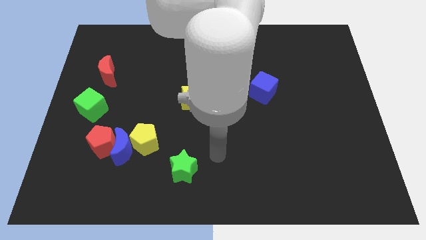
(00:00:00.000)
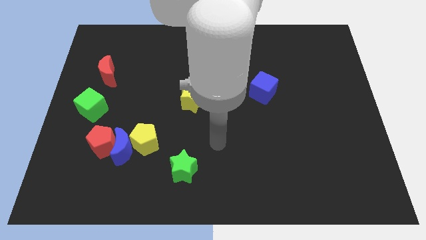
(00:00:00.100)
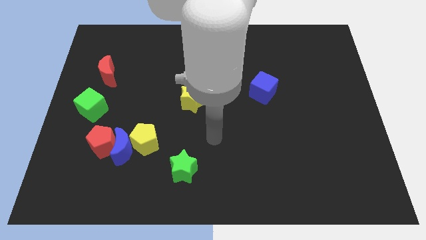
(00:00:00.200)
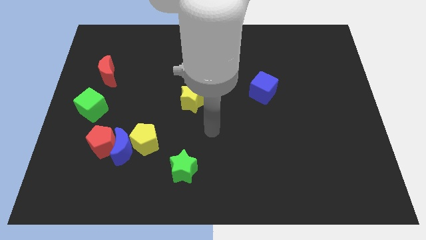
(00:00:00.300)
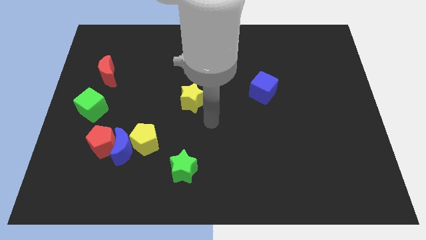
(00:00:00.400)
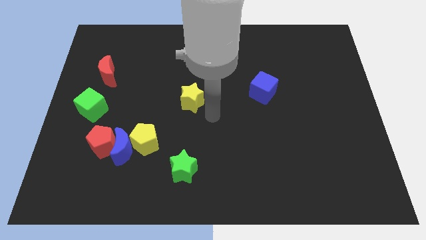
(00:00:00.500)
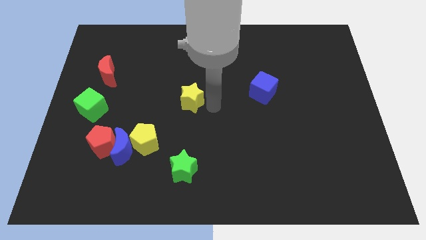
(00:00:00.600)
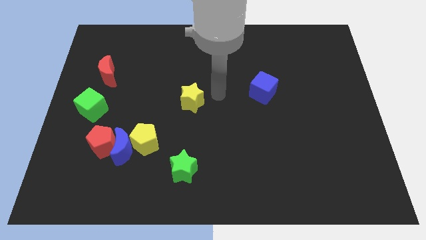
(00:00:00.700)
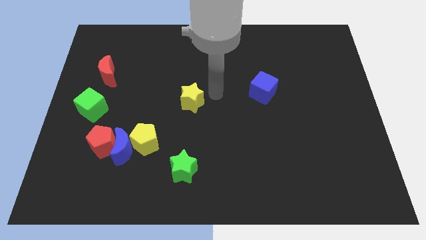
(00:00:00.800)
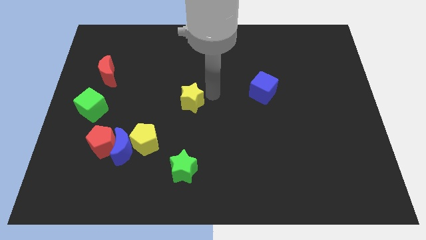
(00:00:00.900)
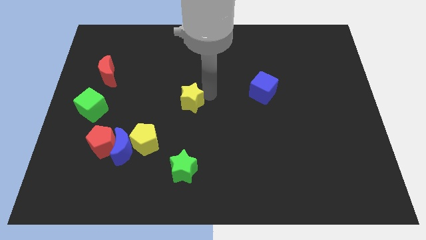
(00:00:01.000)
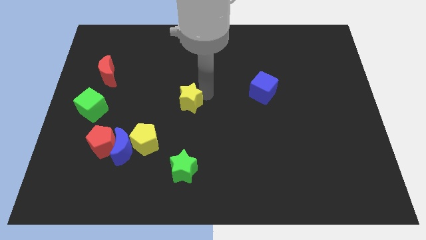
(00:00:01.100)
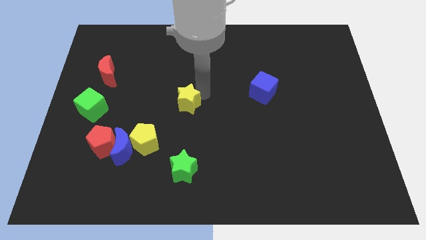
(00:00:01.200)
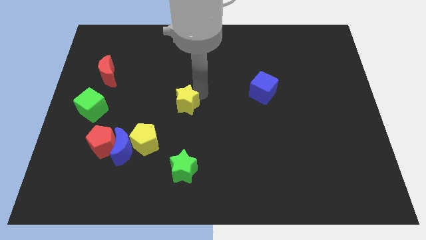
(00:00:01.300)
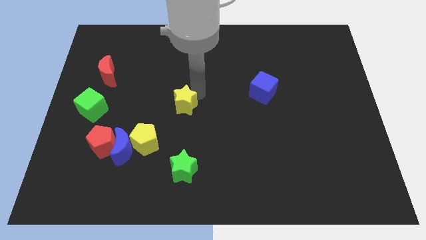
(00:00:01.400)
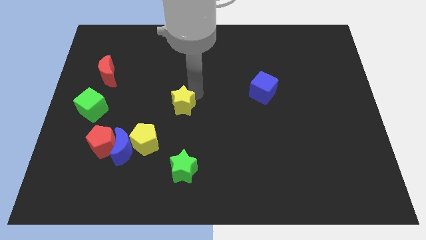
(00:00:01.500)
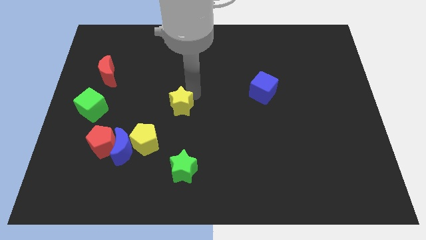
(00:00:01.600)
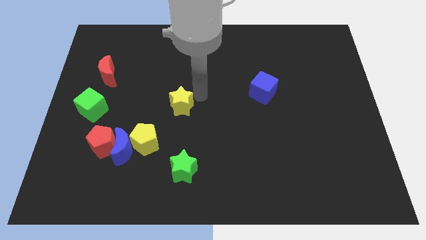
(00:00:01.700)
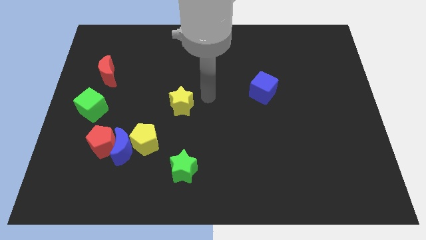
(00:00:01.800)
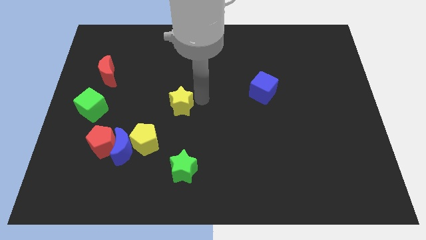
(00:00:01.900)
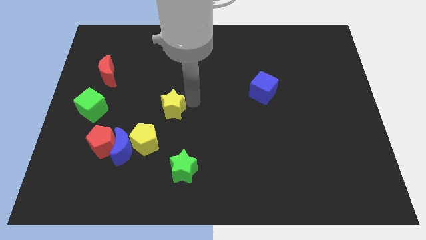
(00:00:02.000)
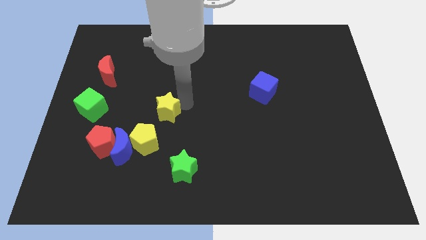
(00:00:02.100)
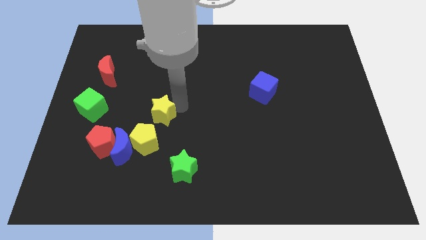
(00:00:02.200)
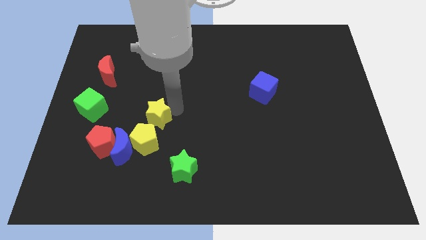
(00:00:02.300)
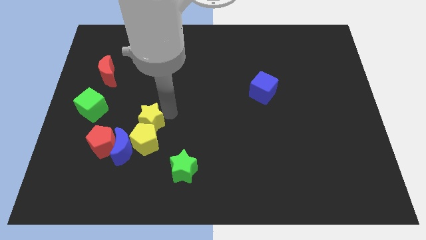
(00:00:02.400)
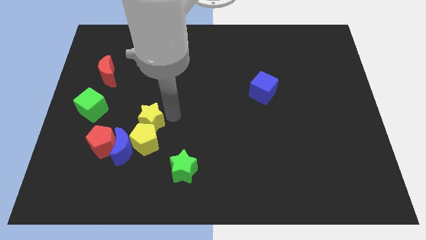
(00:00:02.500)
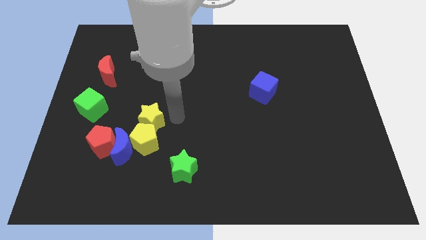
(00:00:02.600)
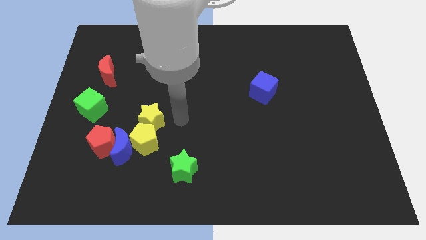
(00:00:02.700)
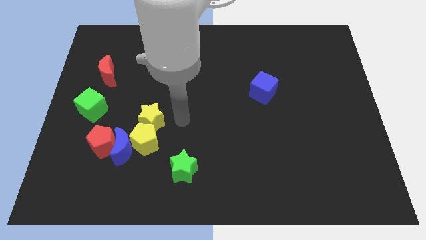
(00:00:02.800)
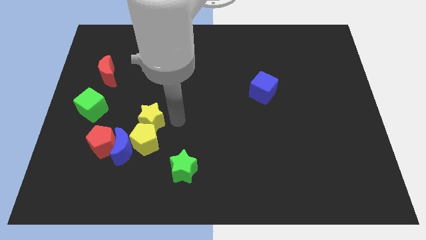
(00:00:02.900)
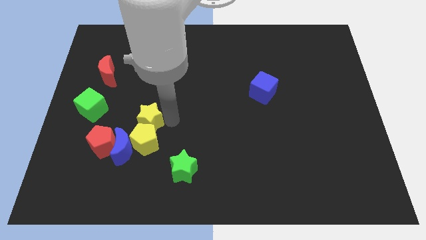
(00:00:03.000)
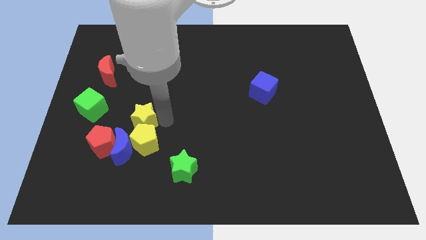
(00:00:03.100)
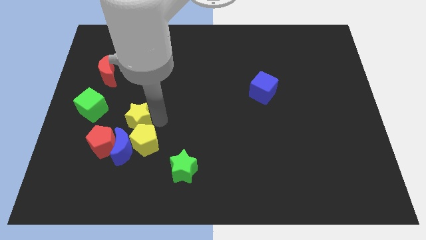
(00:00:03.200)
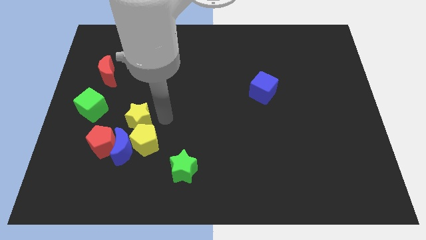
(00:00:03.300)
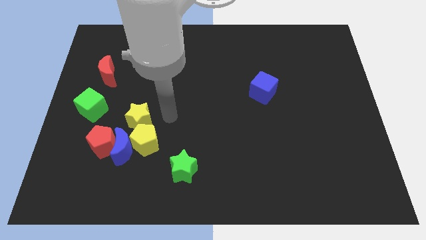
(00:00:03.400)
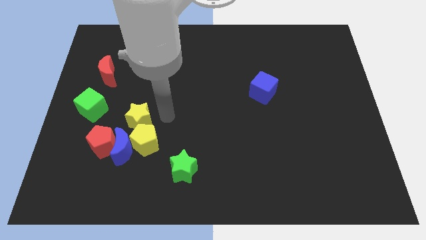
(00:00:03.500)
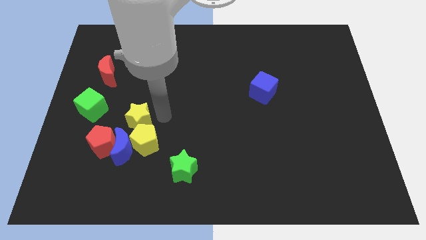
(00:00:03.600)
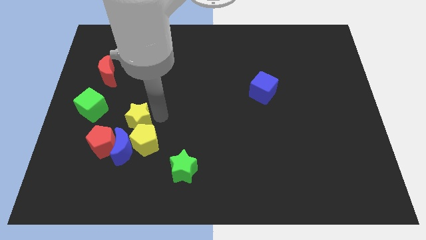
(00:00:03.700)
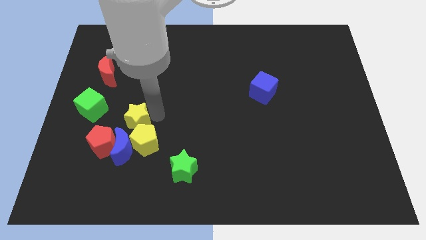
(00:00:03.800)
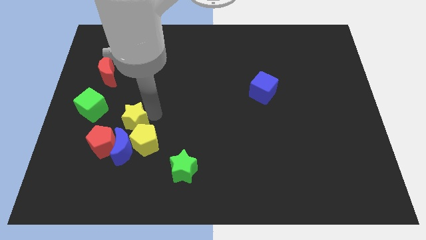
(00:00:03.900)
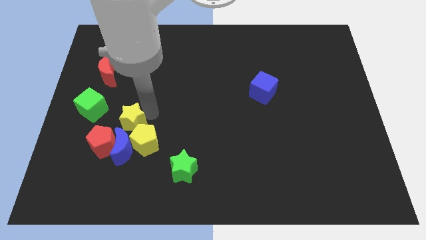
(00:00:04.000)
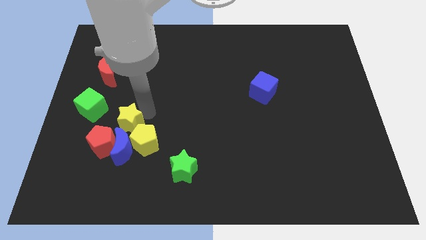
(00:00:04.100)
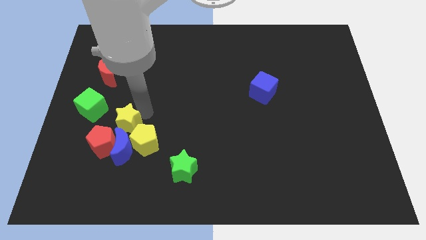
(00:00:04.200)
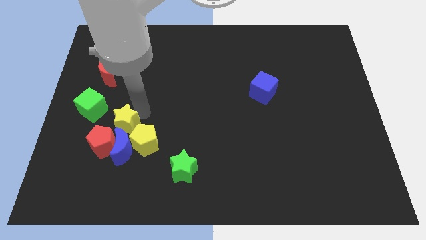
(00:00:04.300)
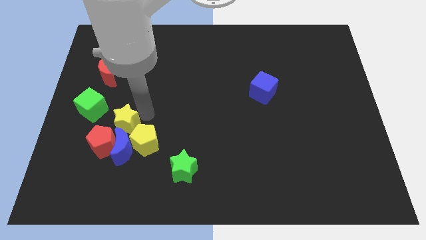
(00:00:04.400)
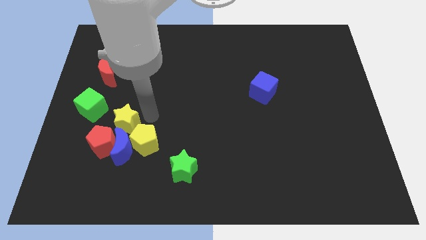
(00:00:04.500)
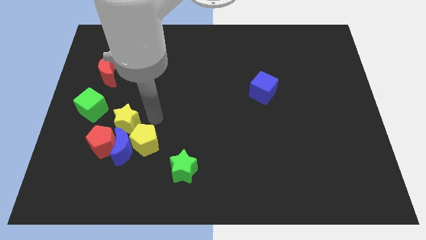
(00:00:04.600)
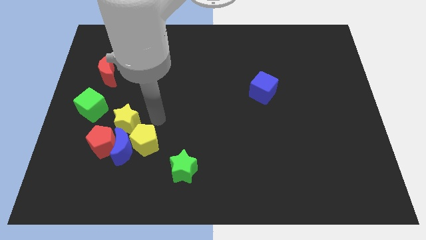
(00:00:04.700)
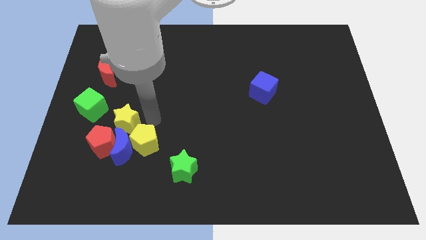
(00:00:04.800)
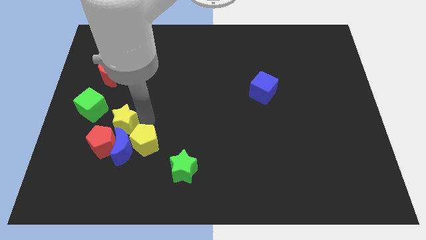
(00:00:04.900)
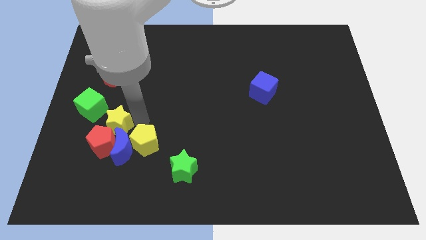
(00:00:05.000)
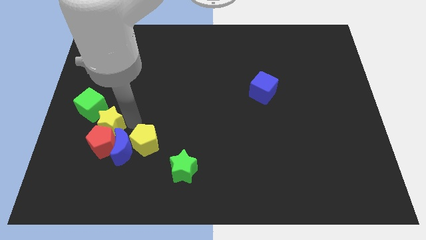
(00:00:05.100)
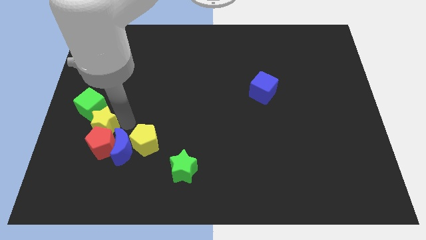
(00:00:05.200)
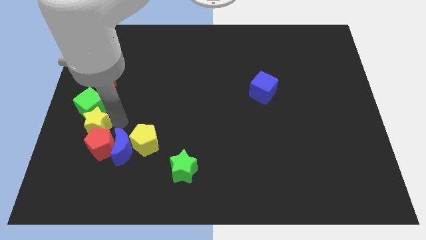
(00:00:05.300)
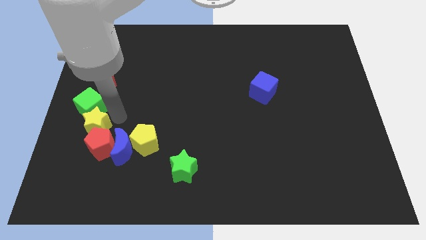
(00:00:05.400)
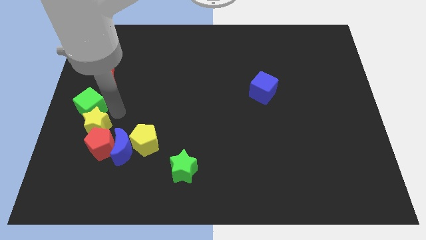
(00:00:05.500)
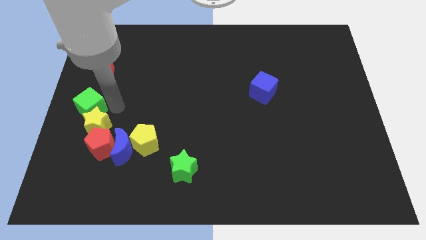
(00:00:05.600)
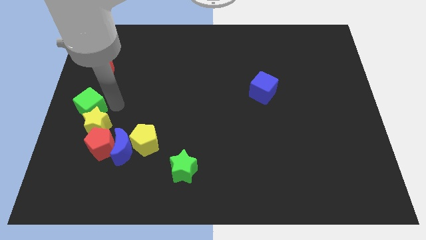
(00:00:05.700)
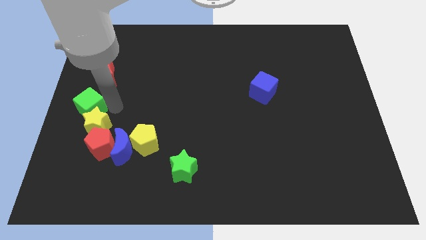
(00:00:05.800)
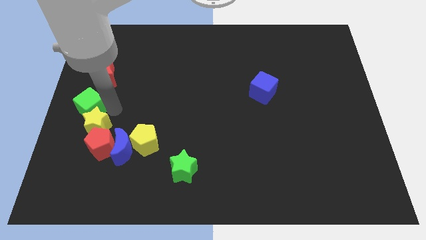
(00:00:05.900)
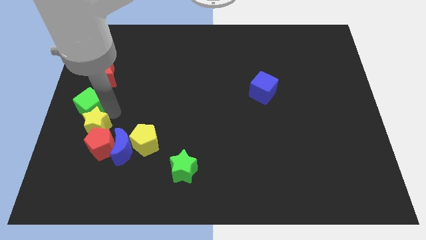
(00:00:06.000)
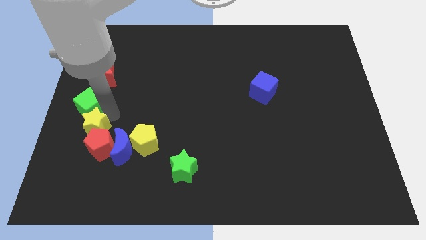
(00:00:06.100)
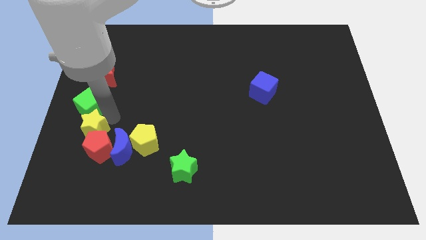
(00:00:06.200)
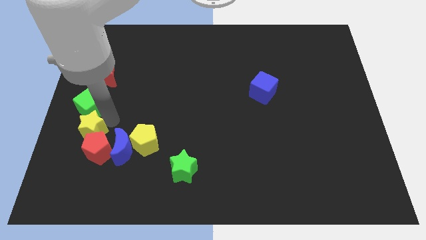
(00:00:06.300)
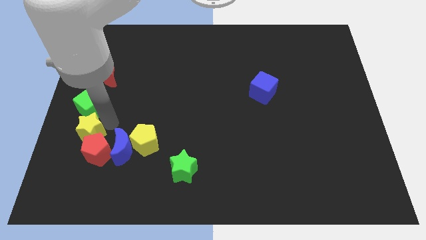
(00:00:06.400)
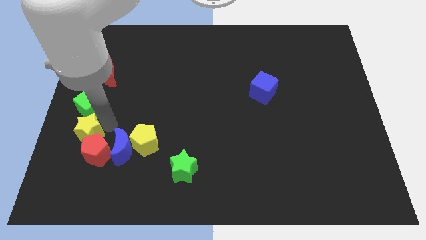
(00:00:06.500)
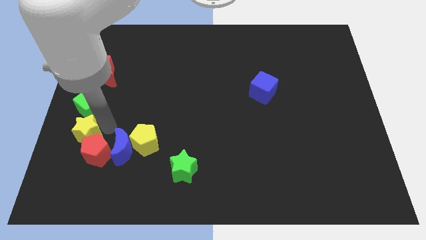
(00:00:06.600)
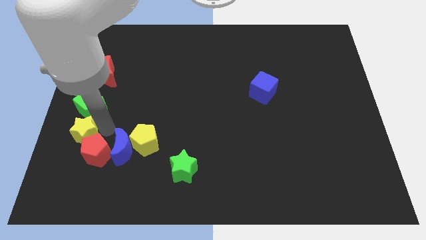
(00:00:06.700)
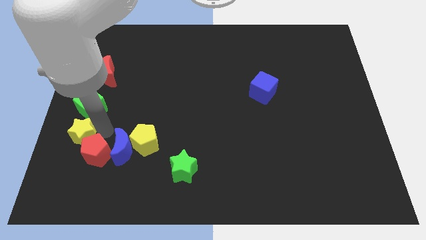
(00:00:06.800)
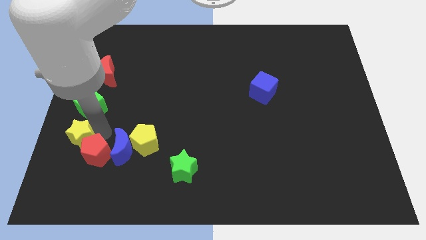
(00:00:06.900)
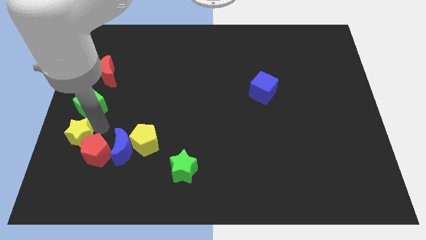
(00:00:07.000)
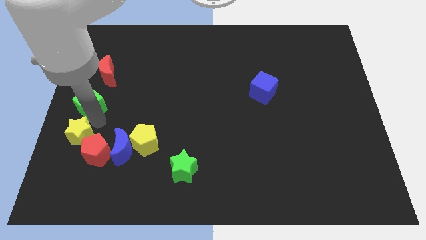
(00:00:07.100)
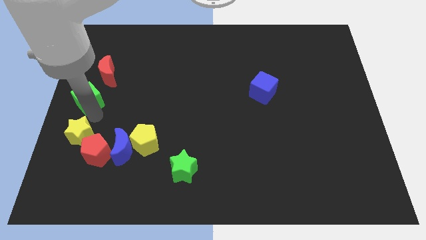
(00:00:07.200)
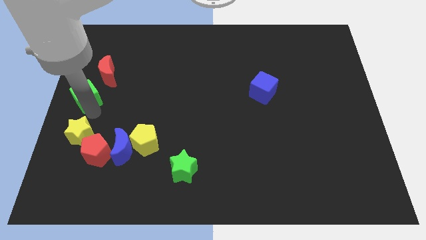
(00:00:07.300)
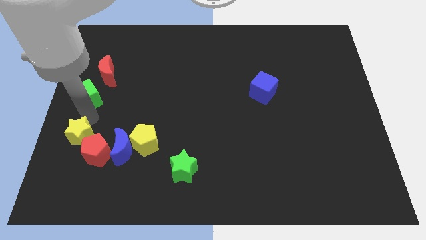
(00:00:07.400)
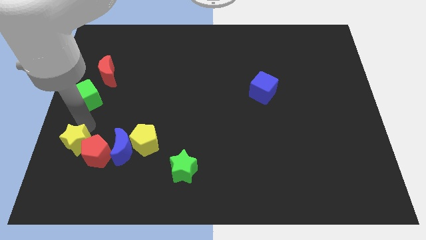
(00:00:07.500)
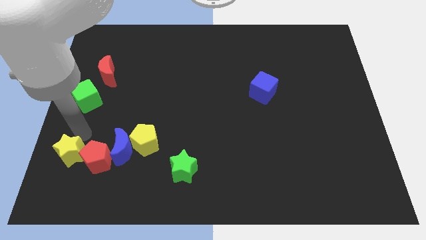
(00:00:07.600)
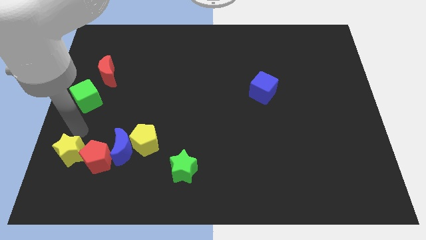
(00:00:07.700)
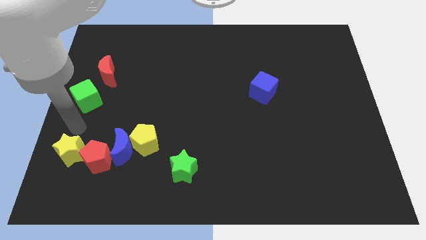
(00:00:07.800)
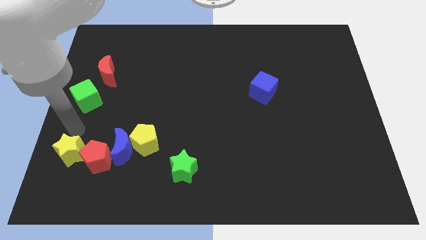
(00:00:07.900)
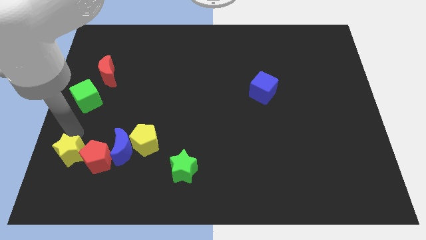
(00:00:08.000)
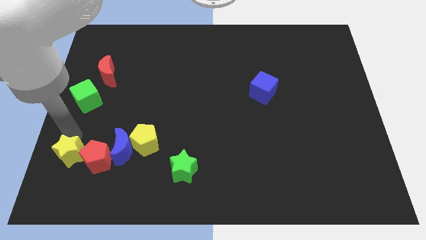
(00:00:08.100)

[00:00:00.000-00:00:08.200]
move the yellow star to the bottom left of the red pentagon

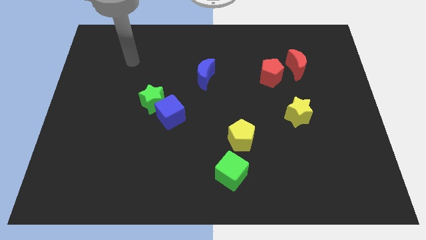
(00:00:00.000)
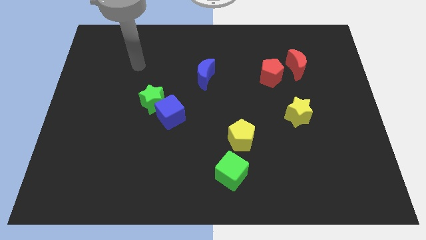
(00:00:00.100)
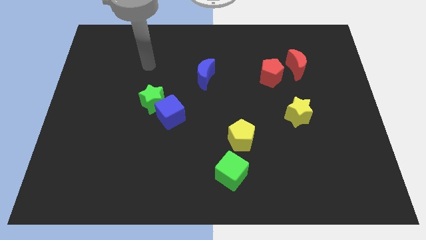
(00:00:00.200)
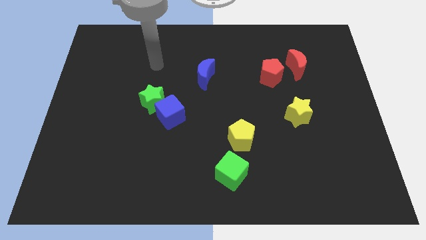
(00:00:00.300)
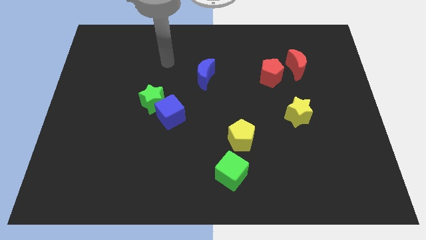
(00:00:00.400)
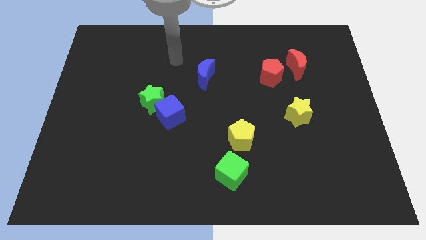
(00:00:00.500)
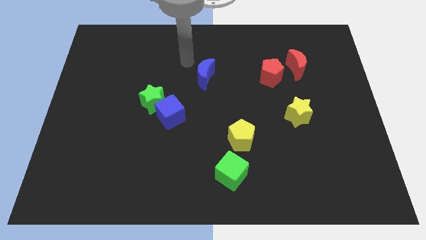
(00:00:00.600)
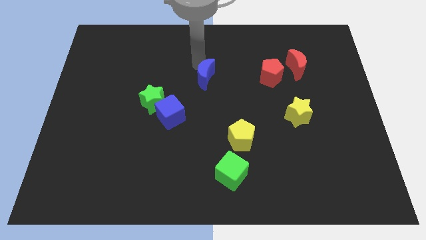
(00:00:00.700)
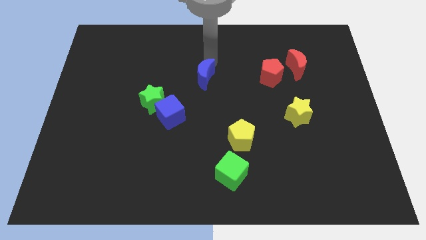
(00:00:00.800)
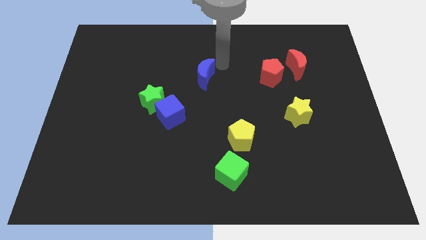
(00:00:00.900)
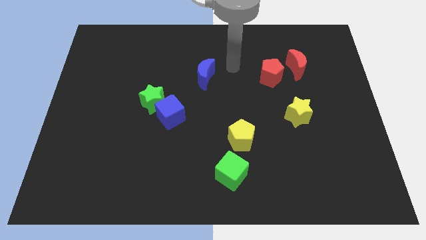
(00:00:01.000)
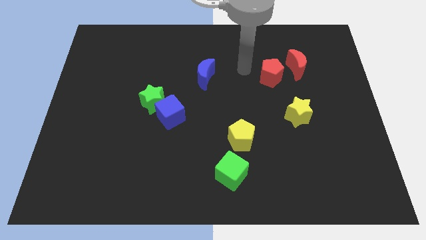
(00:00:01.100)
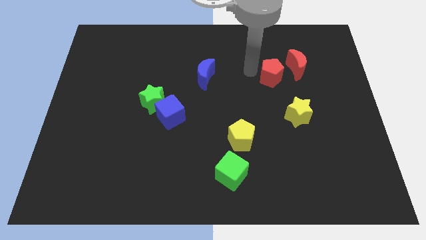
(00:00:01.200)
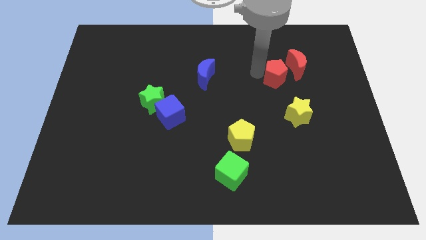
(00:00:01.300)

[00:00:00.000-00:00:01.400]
move the red pentagon to the top side of the yellow star
